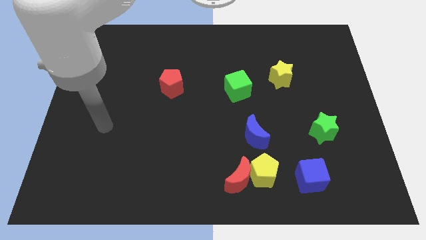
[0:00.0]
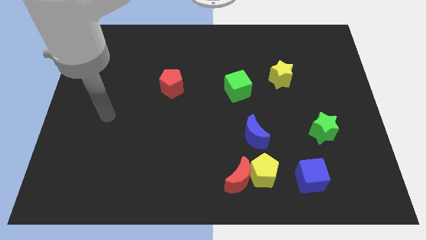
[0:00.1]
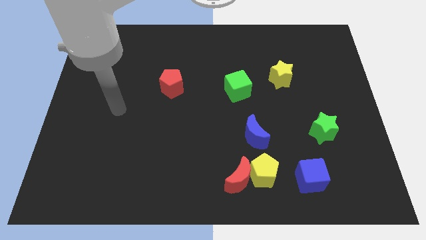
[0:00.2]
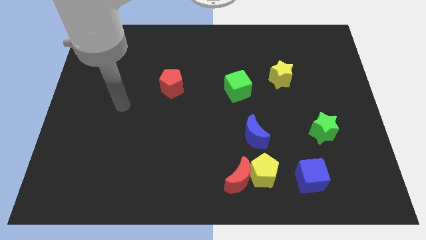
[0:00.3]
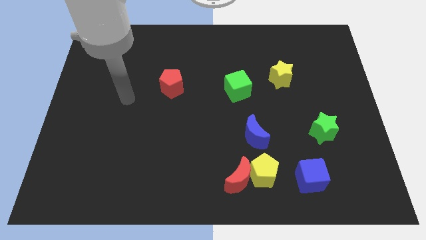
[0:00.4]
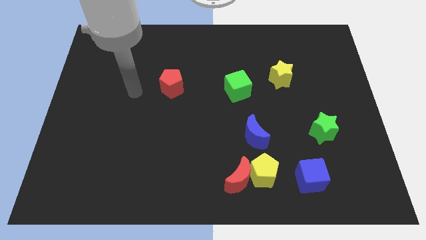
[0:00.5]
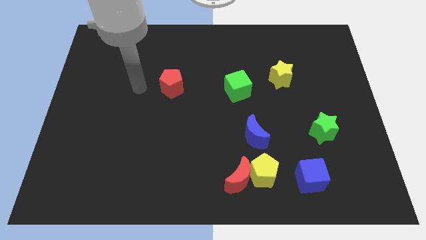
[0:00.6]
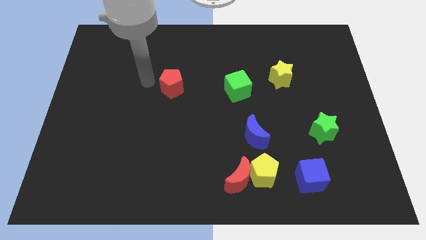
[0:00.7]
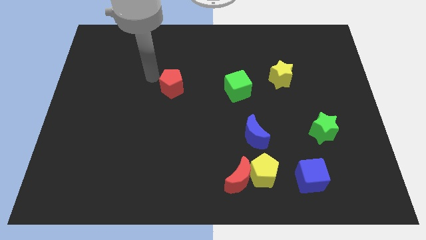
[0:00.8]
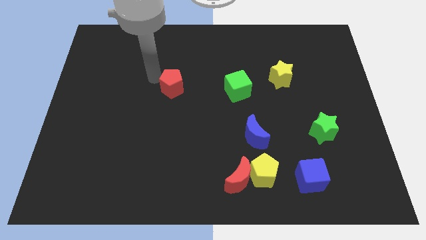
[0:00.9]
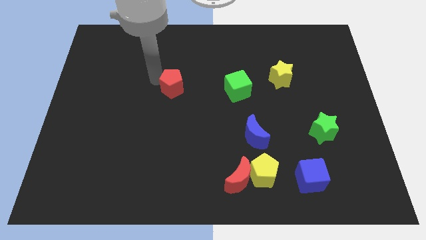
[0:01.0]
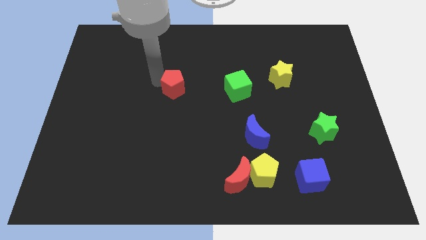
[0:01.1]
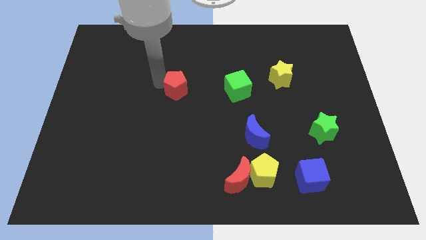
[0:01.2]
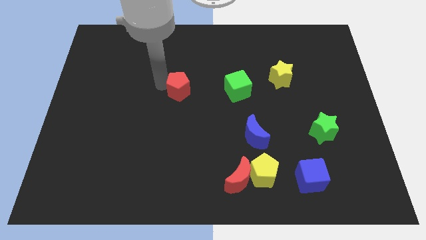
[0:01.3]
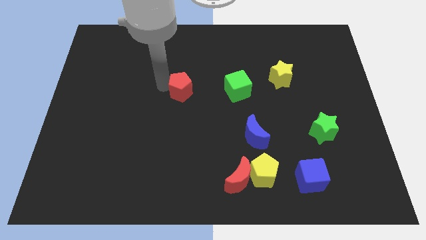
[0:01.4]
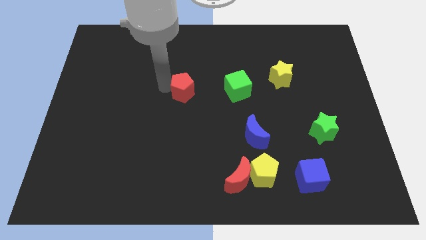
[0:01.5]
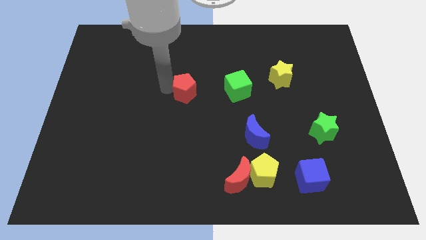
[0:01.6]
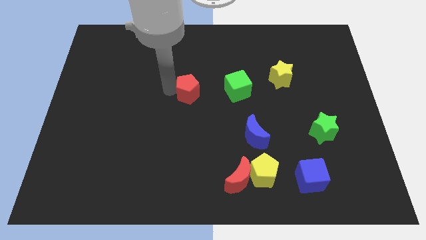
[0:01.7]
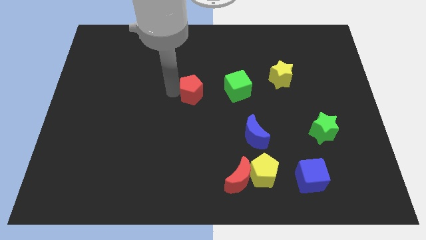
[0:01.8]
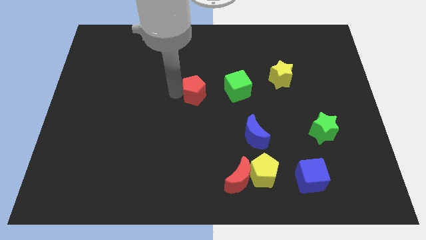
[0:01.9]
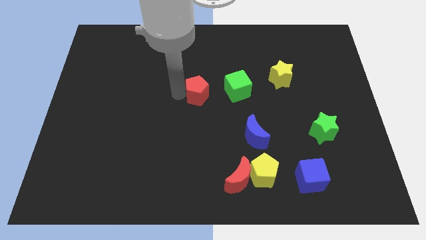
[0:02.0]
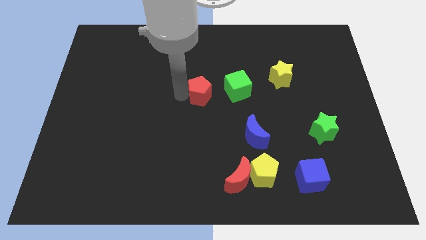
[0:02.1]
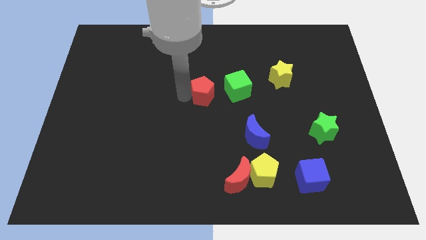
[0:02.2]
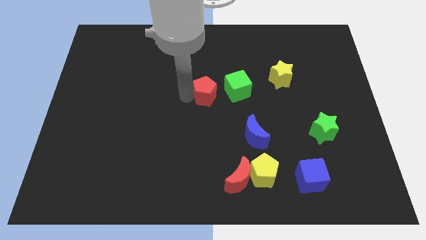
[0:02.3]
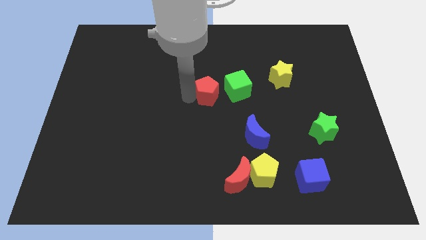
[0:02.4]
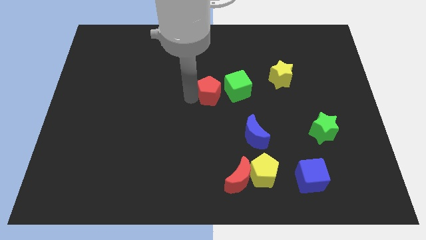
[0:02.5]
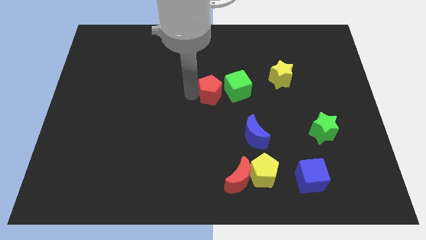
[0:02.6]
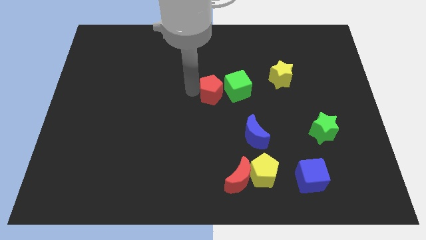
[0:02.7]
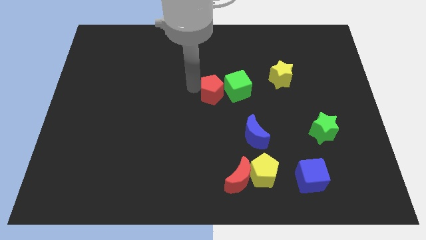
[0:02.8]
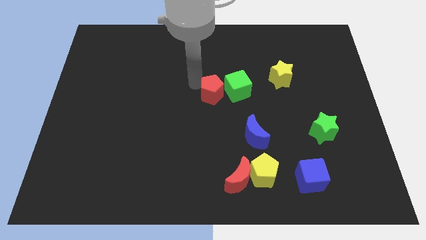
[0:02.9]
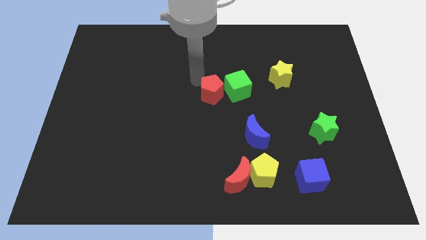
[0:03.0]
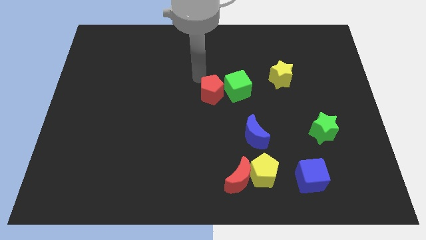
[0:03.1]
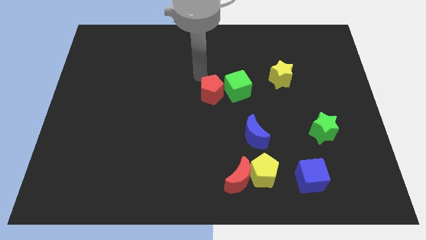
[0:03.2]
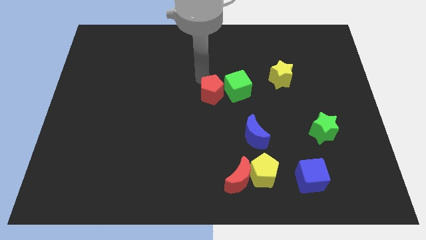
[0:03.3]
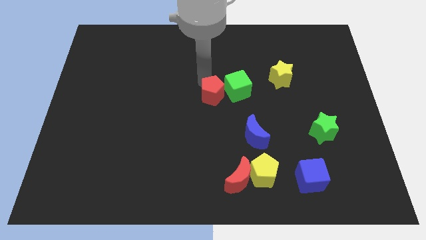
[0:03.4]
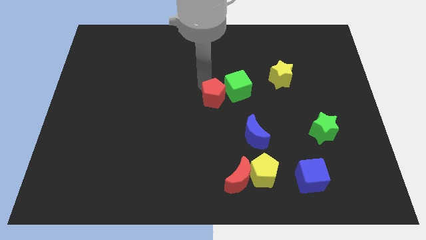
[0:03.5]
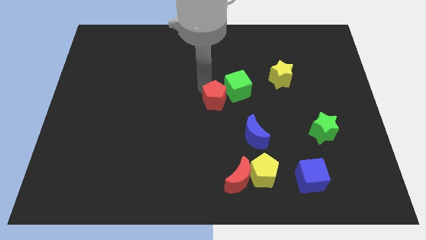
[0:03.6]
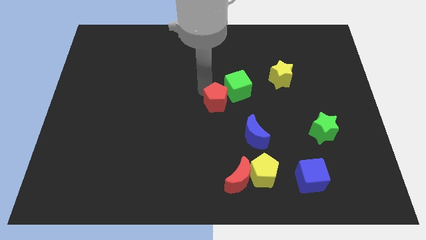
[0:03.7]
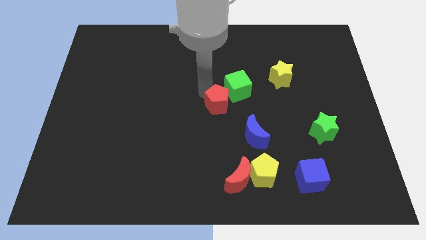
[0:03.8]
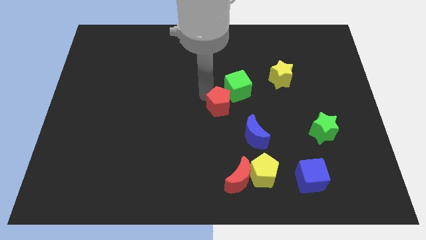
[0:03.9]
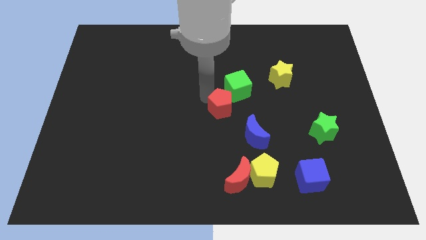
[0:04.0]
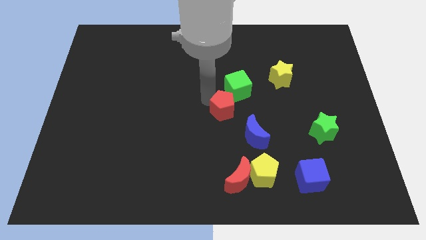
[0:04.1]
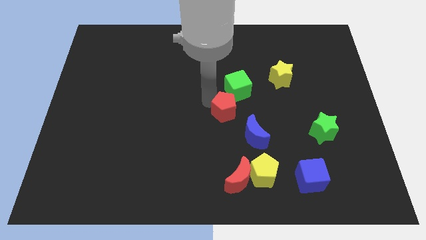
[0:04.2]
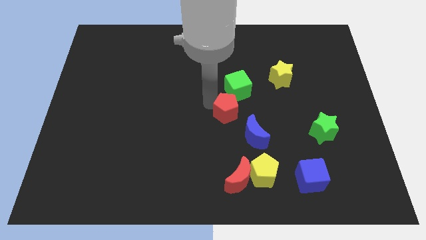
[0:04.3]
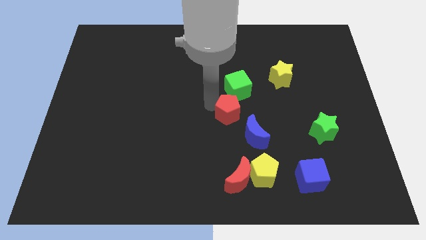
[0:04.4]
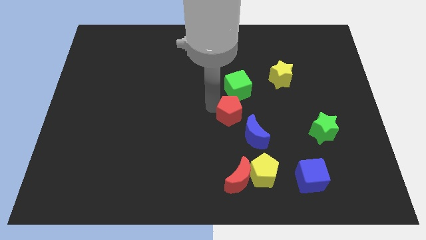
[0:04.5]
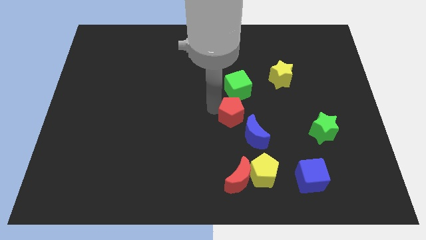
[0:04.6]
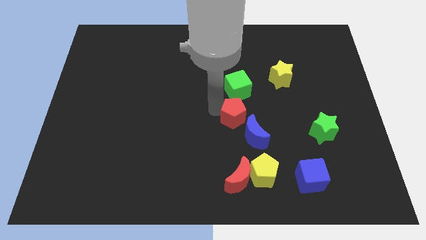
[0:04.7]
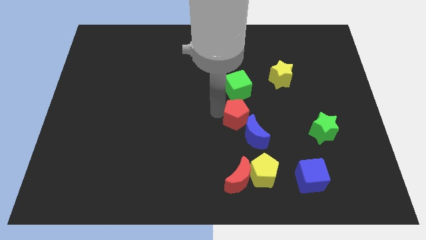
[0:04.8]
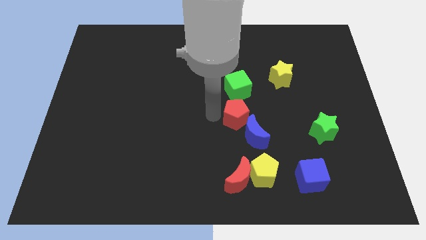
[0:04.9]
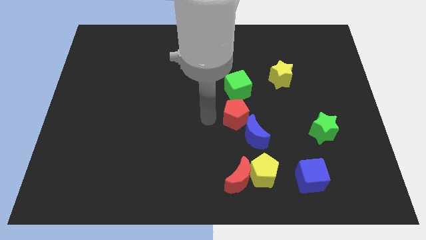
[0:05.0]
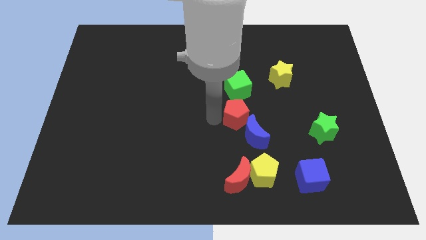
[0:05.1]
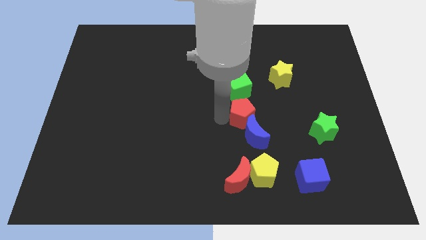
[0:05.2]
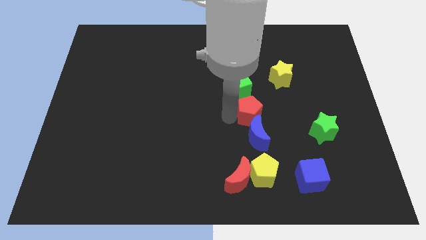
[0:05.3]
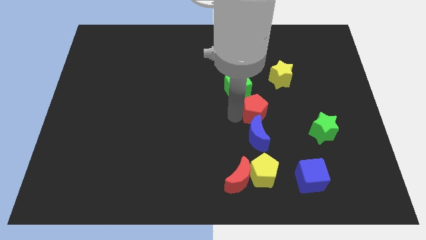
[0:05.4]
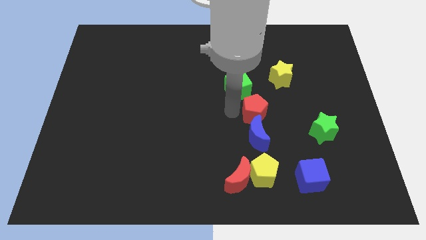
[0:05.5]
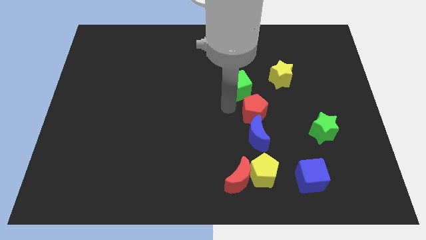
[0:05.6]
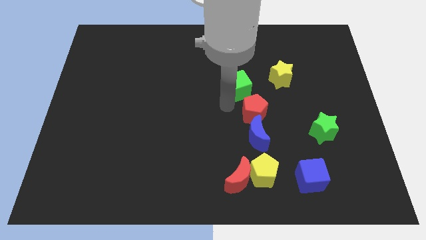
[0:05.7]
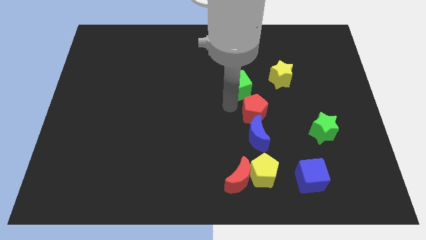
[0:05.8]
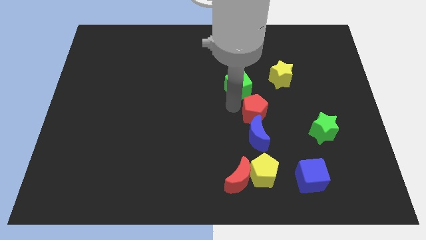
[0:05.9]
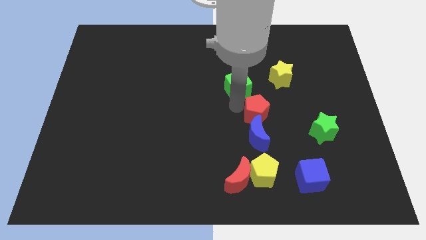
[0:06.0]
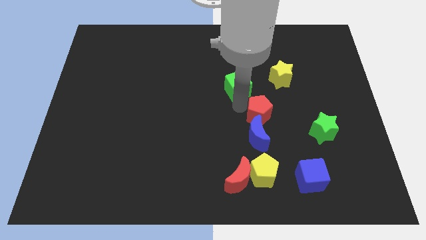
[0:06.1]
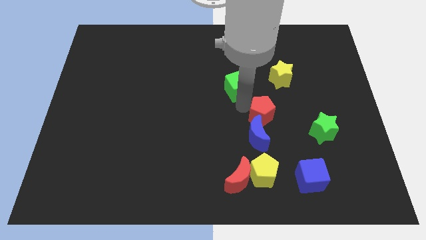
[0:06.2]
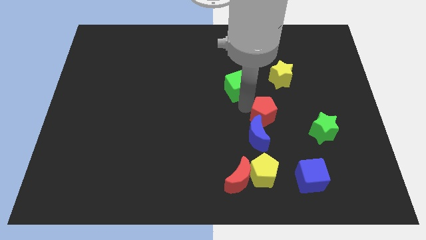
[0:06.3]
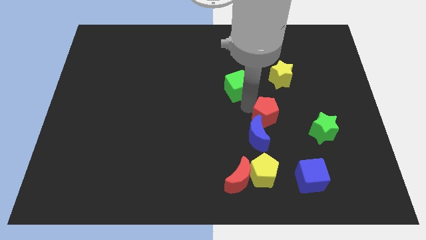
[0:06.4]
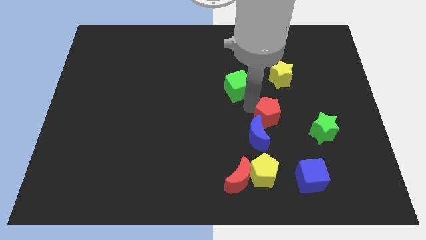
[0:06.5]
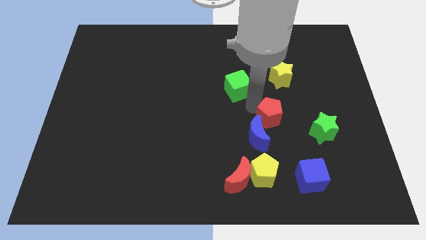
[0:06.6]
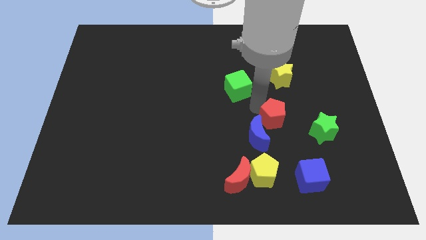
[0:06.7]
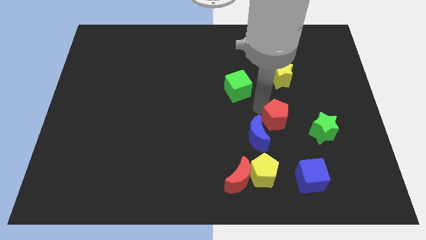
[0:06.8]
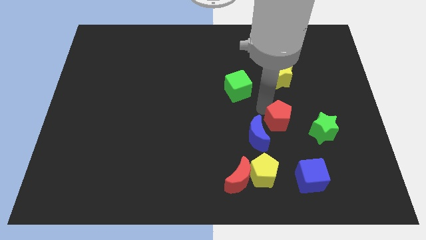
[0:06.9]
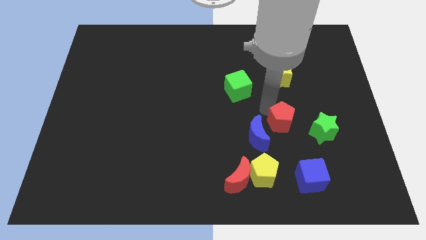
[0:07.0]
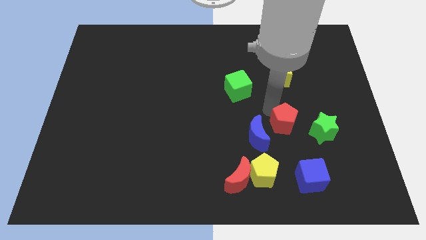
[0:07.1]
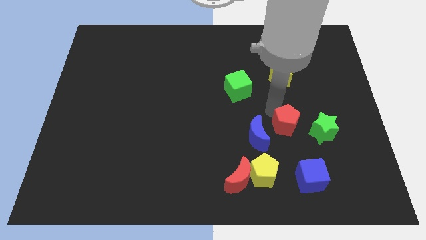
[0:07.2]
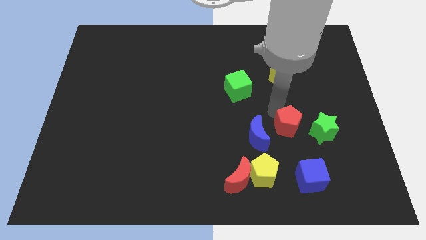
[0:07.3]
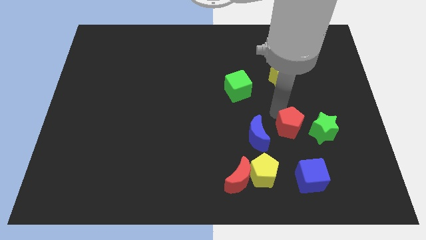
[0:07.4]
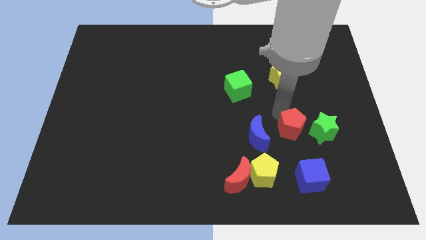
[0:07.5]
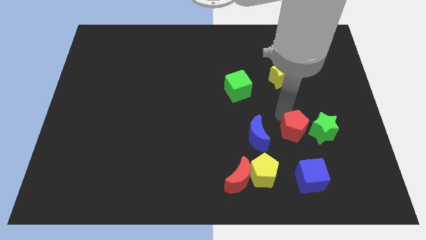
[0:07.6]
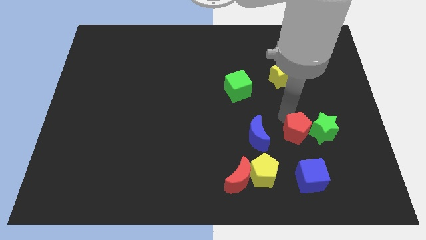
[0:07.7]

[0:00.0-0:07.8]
push the red pentagon to the bottom left side of the green star
